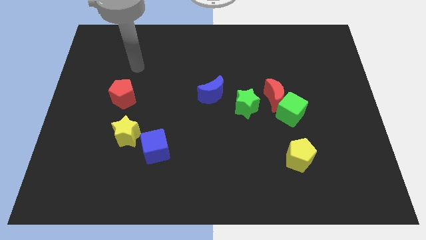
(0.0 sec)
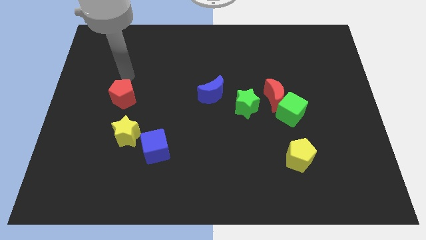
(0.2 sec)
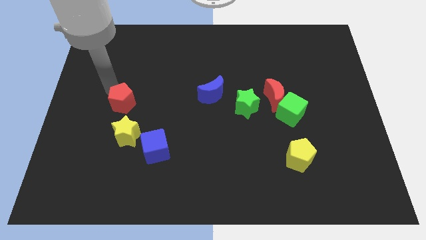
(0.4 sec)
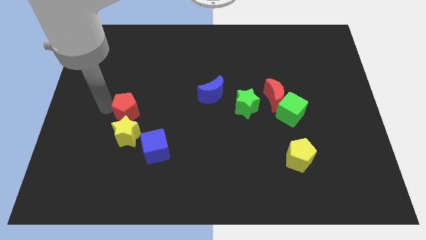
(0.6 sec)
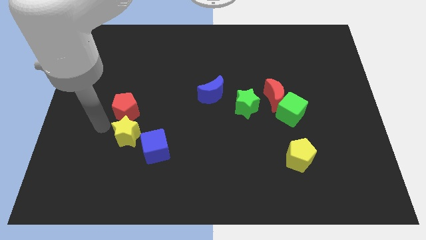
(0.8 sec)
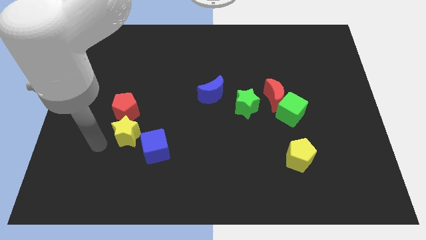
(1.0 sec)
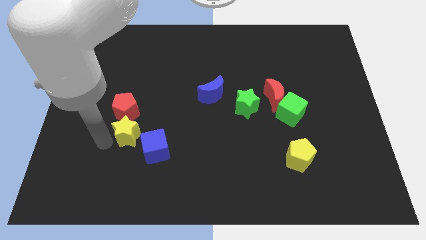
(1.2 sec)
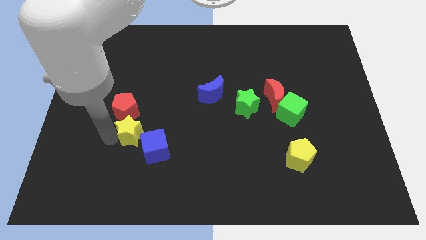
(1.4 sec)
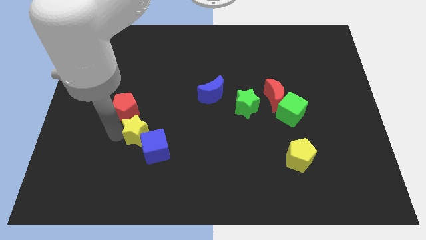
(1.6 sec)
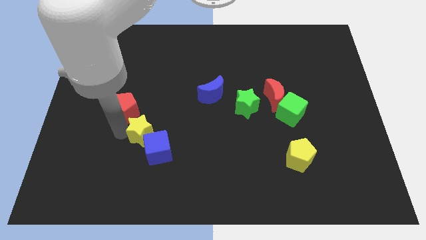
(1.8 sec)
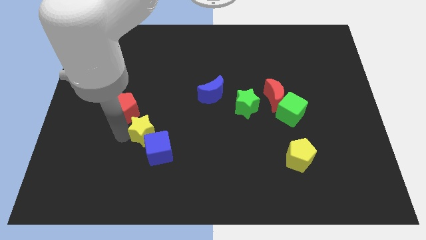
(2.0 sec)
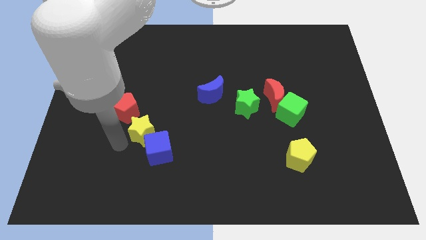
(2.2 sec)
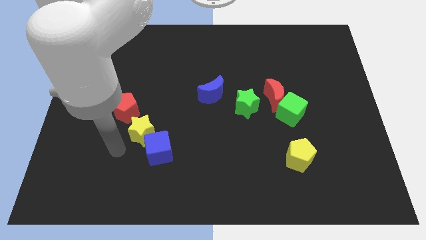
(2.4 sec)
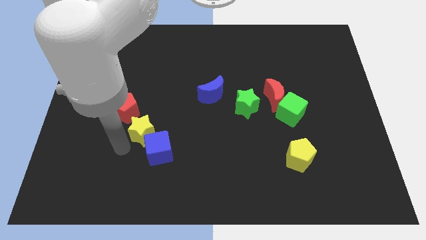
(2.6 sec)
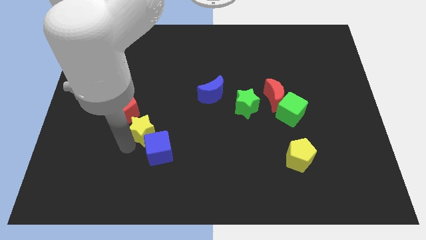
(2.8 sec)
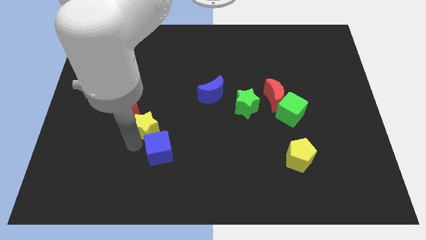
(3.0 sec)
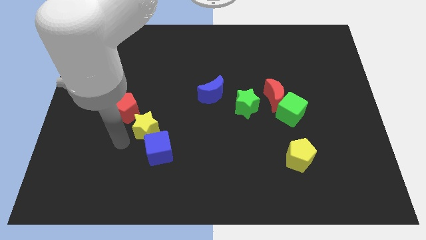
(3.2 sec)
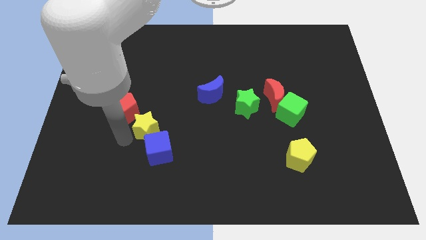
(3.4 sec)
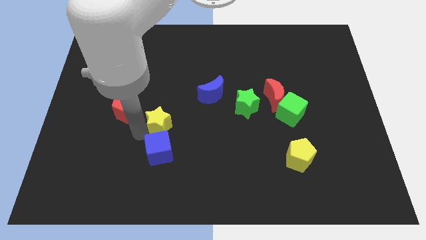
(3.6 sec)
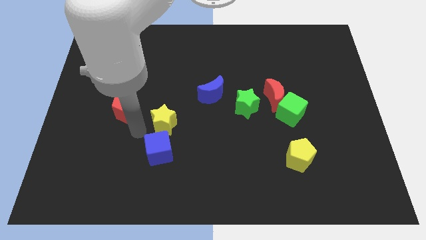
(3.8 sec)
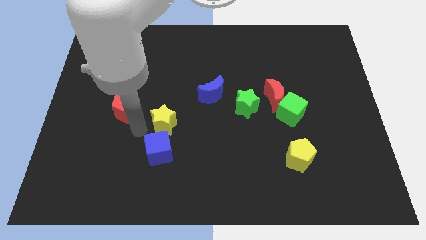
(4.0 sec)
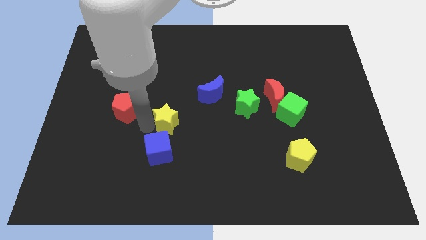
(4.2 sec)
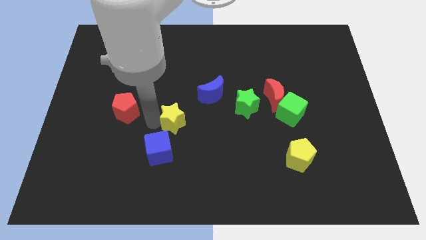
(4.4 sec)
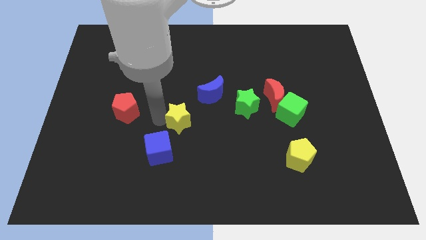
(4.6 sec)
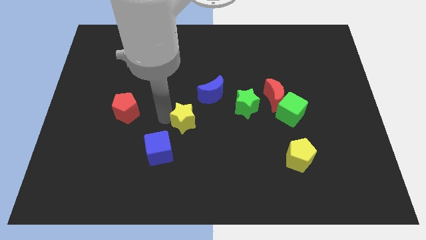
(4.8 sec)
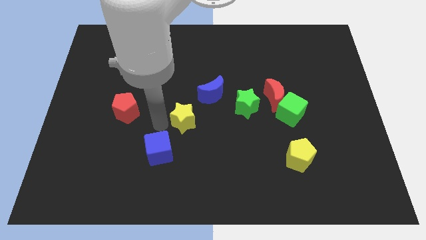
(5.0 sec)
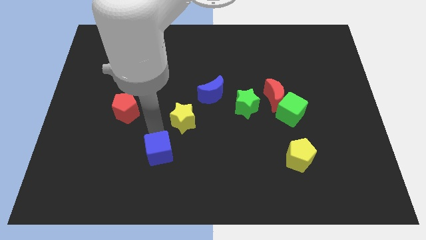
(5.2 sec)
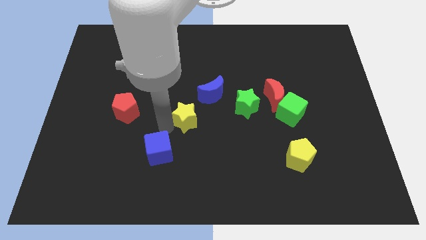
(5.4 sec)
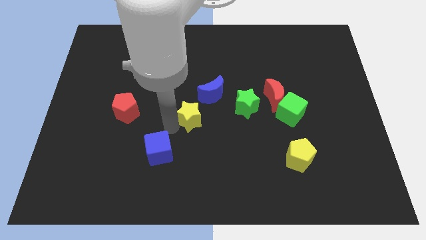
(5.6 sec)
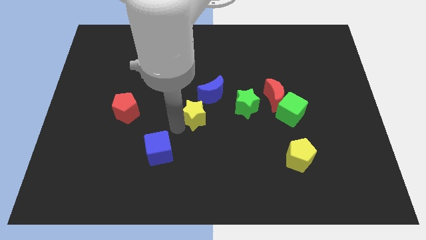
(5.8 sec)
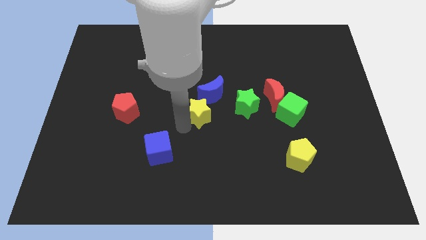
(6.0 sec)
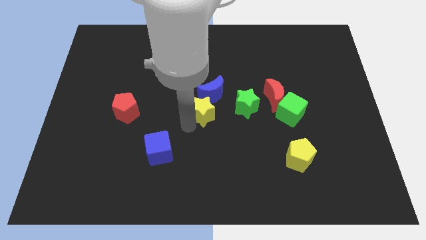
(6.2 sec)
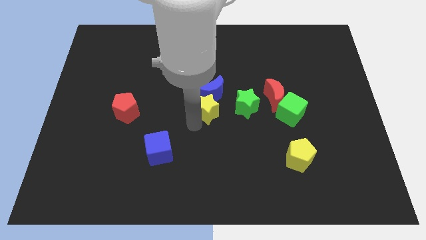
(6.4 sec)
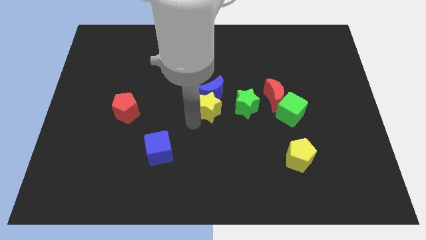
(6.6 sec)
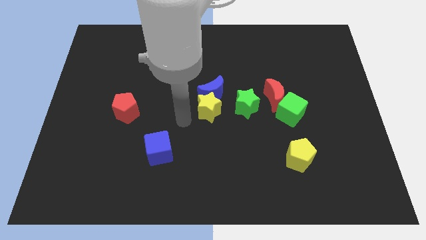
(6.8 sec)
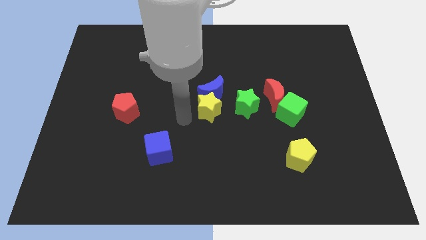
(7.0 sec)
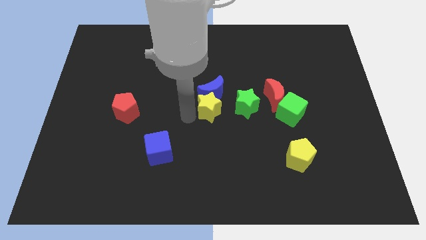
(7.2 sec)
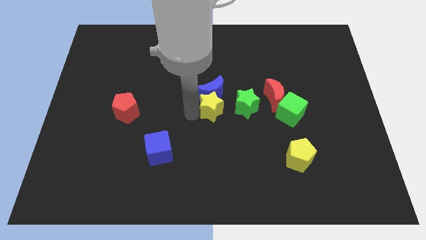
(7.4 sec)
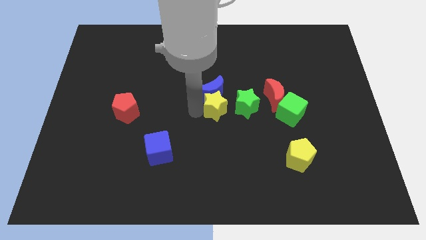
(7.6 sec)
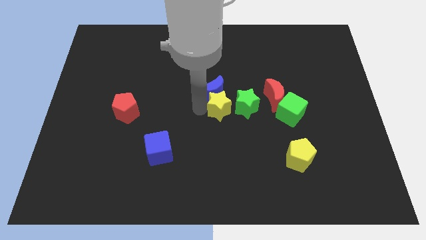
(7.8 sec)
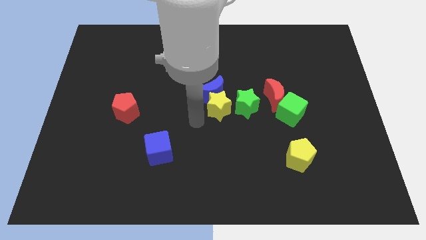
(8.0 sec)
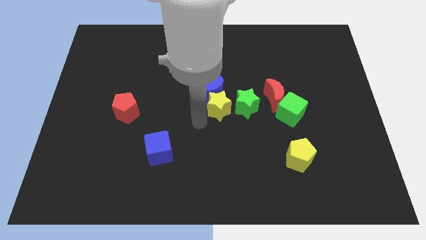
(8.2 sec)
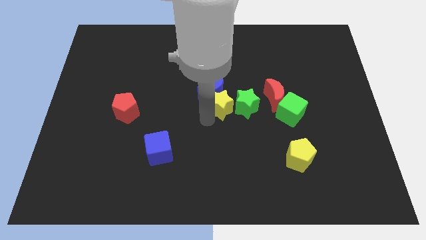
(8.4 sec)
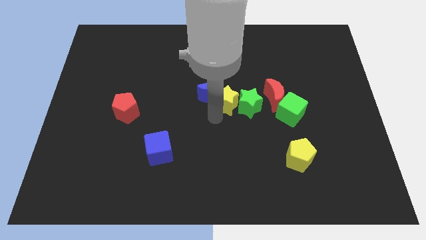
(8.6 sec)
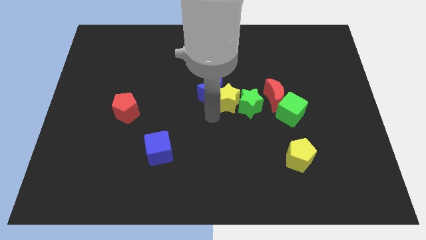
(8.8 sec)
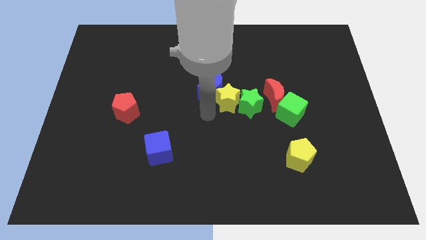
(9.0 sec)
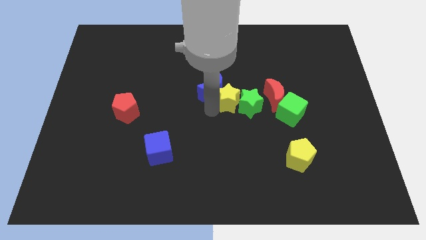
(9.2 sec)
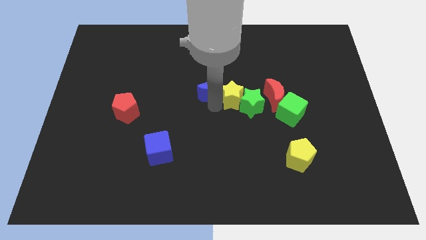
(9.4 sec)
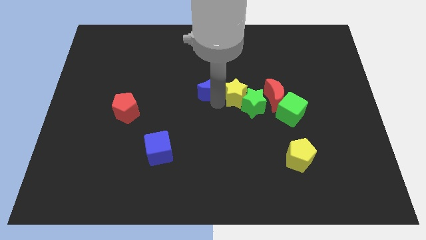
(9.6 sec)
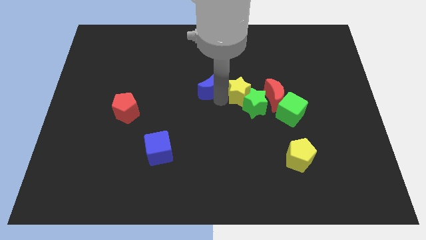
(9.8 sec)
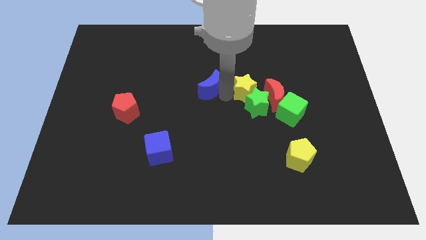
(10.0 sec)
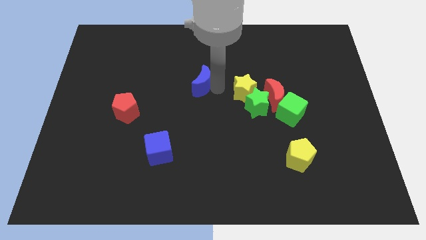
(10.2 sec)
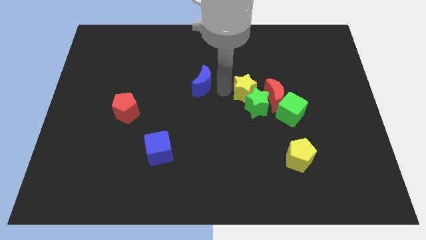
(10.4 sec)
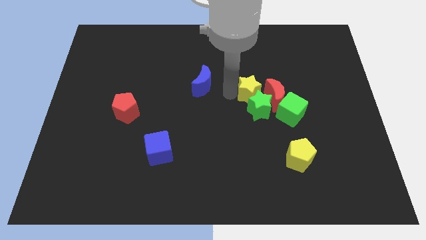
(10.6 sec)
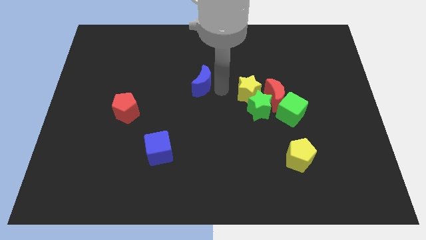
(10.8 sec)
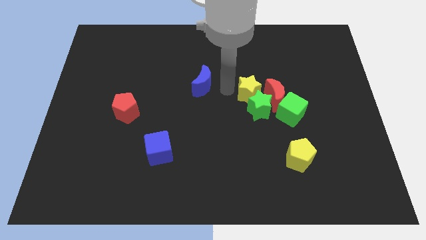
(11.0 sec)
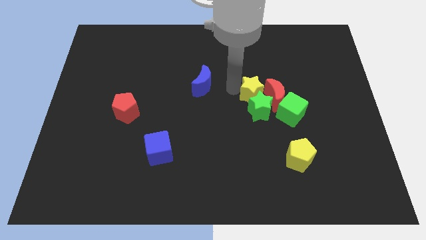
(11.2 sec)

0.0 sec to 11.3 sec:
move the yellow star towards the red moon

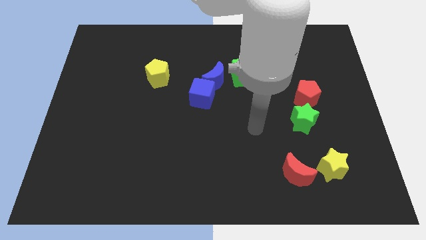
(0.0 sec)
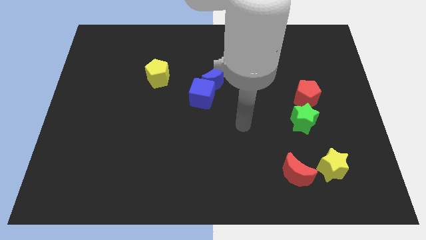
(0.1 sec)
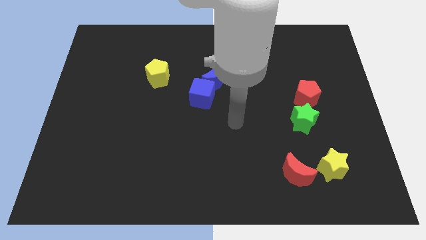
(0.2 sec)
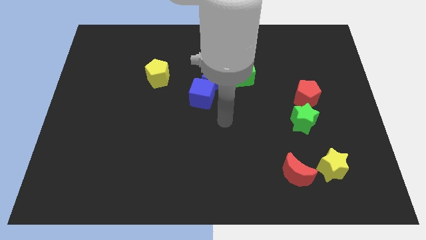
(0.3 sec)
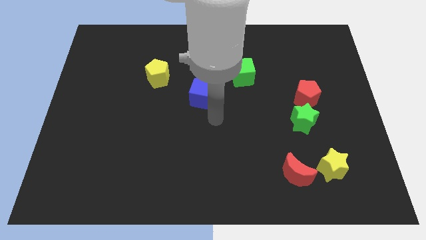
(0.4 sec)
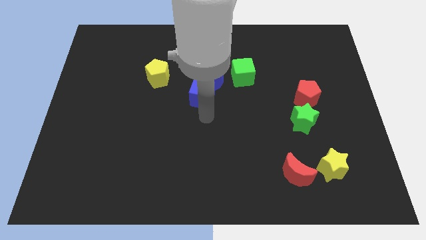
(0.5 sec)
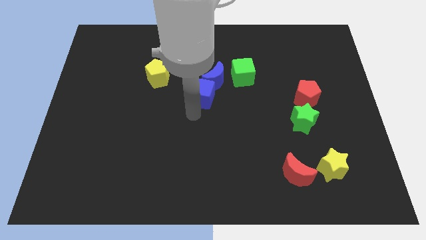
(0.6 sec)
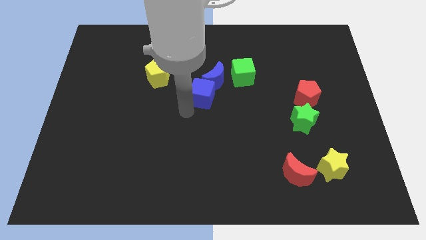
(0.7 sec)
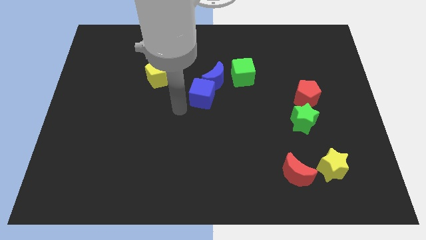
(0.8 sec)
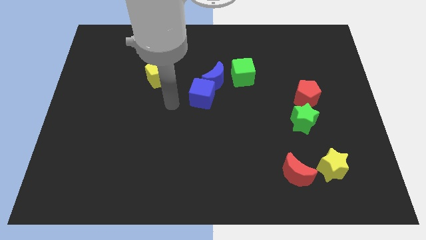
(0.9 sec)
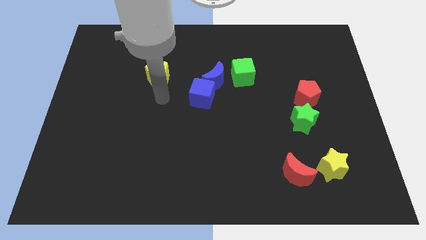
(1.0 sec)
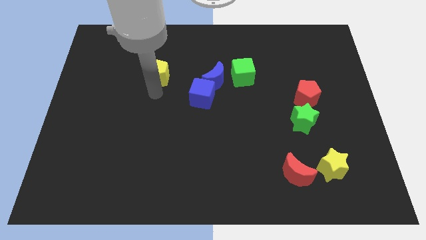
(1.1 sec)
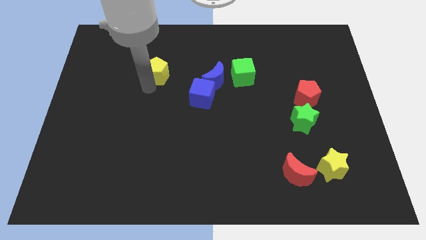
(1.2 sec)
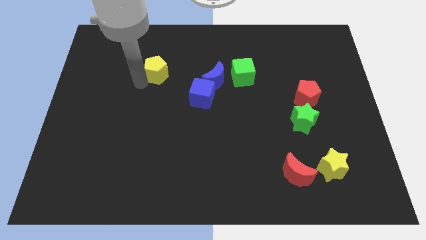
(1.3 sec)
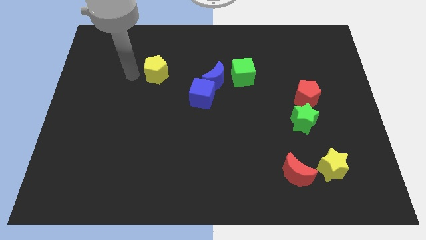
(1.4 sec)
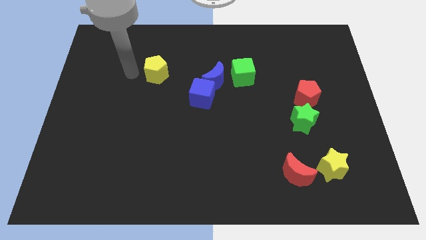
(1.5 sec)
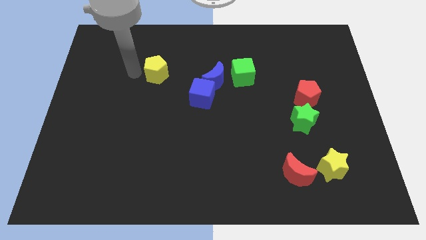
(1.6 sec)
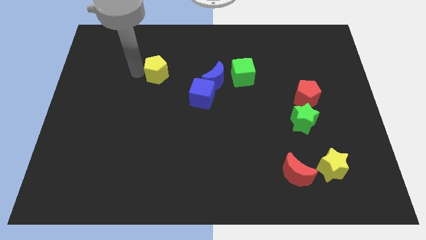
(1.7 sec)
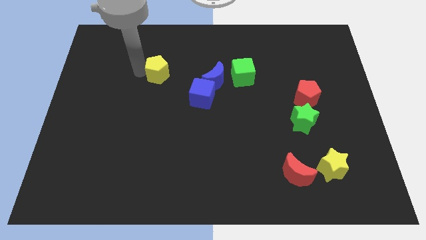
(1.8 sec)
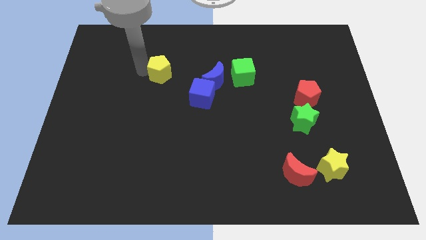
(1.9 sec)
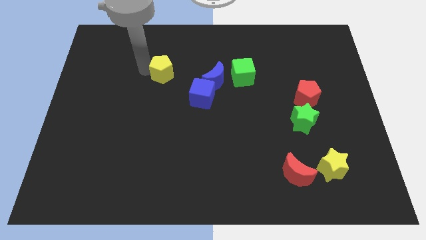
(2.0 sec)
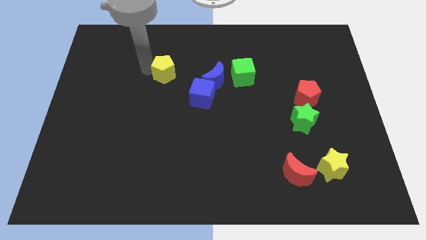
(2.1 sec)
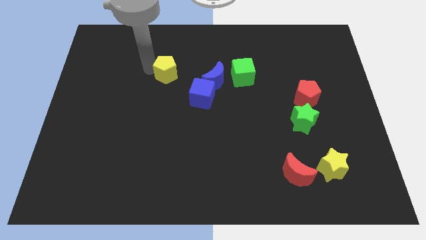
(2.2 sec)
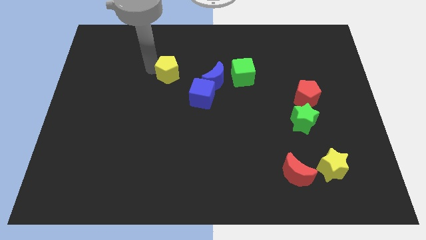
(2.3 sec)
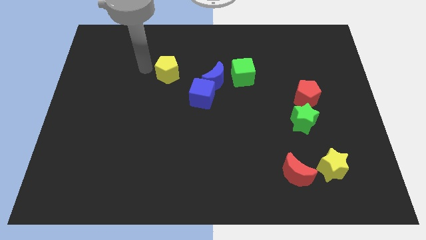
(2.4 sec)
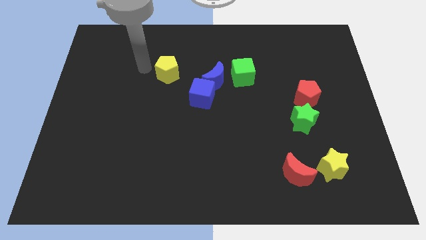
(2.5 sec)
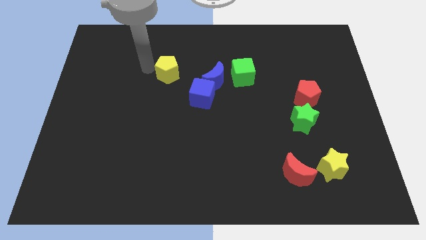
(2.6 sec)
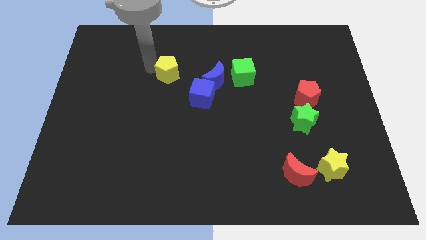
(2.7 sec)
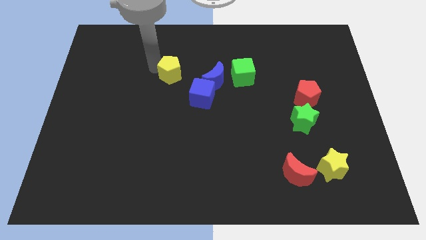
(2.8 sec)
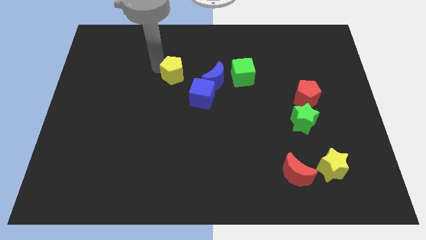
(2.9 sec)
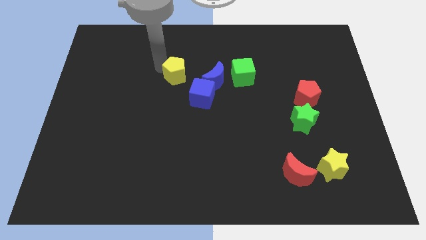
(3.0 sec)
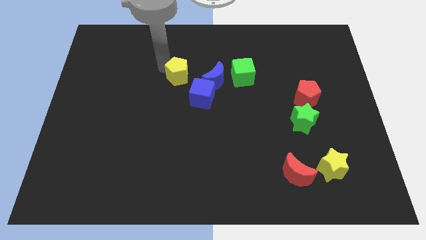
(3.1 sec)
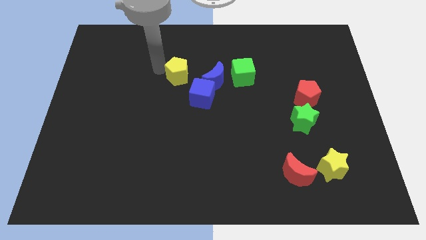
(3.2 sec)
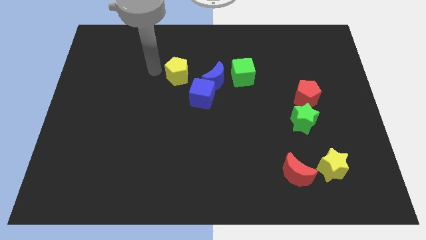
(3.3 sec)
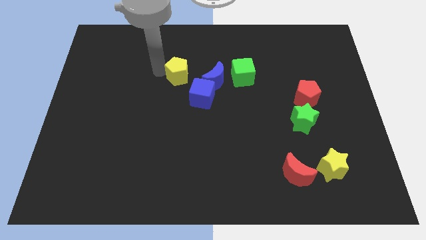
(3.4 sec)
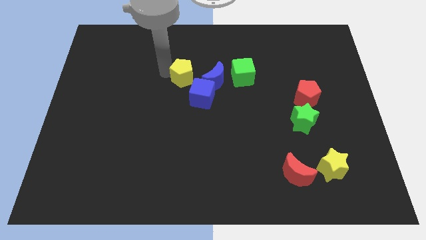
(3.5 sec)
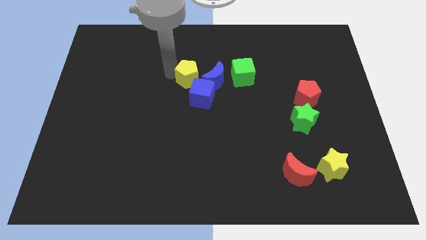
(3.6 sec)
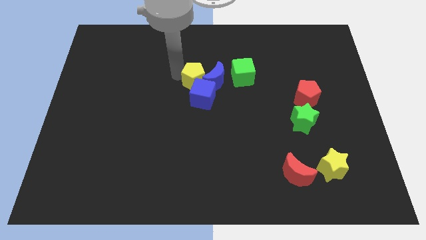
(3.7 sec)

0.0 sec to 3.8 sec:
put the yellow pentagon next to the blue moon
